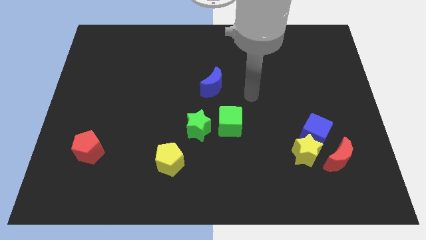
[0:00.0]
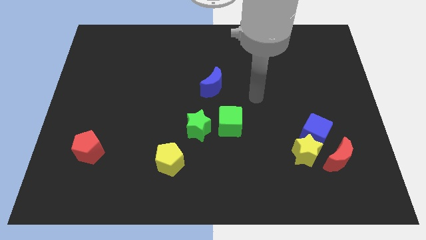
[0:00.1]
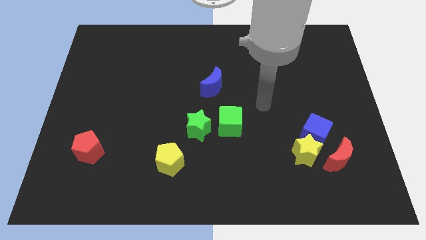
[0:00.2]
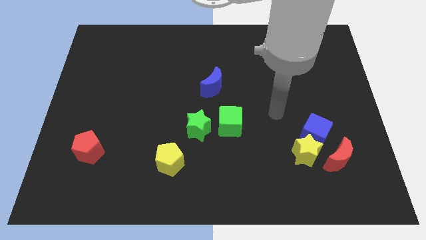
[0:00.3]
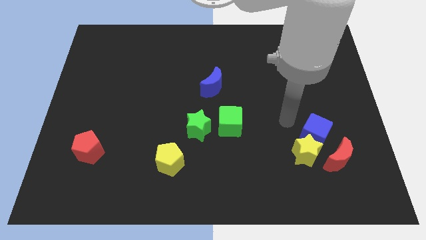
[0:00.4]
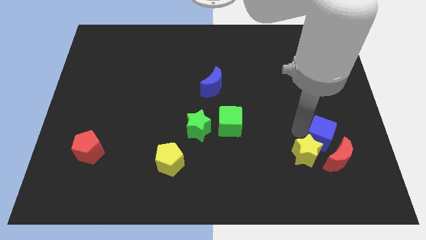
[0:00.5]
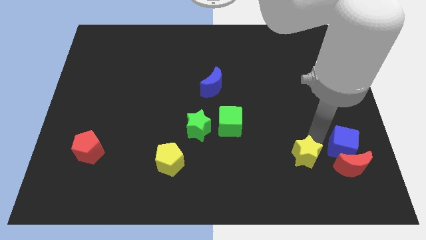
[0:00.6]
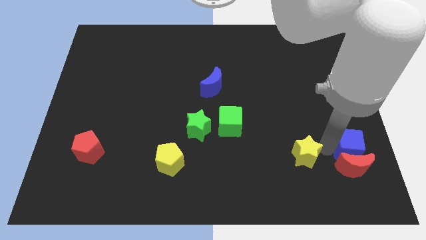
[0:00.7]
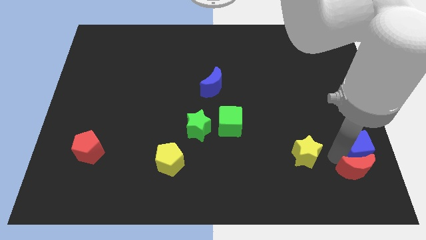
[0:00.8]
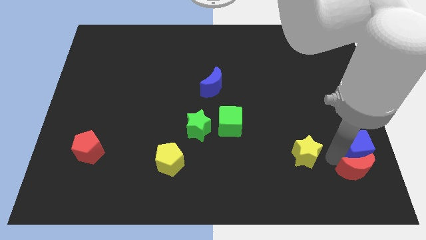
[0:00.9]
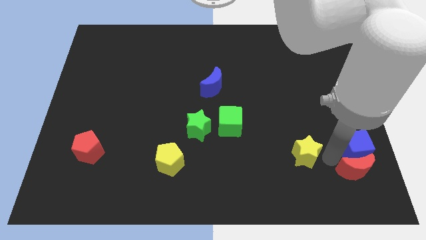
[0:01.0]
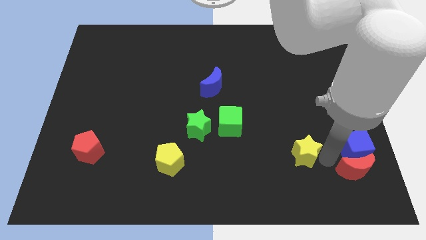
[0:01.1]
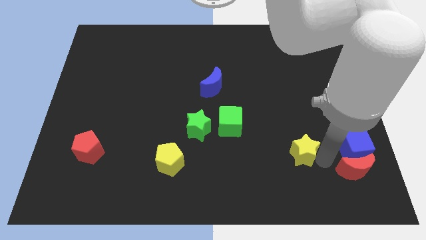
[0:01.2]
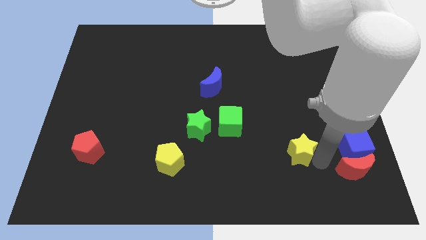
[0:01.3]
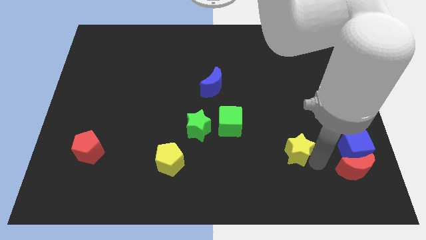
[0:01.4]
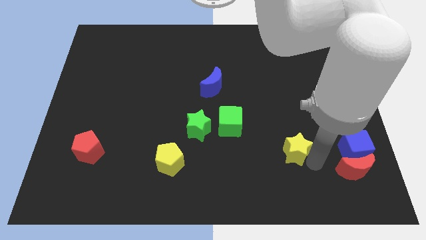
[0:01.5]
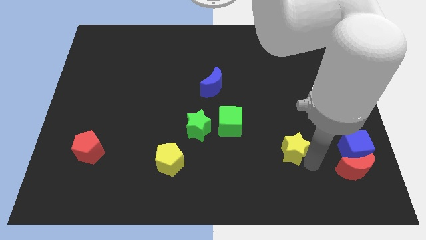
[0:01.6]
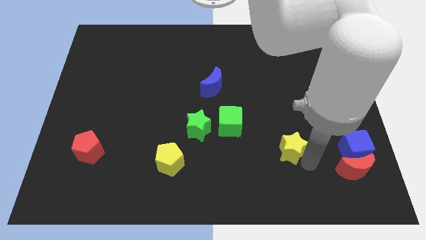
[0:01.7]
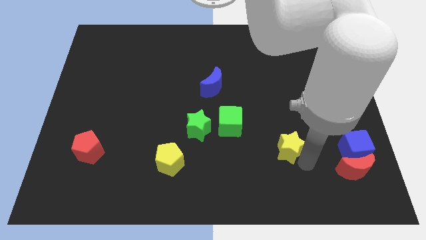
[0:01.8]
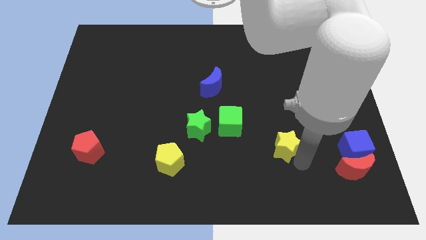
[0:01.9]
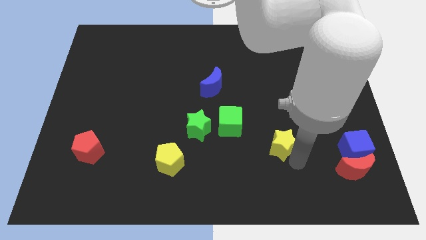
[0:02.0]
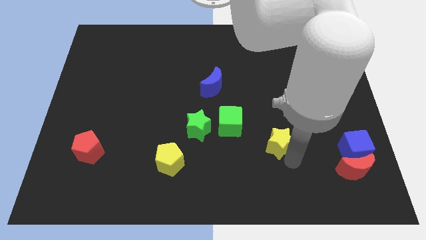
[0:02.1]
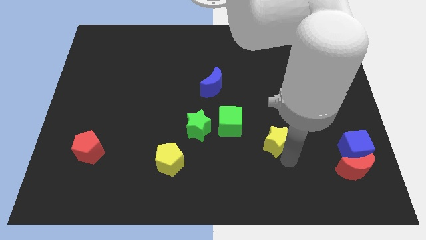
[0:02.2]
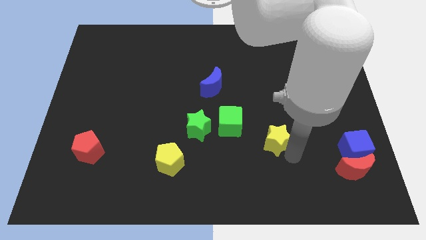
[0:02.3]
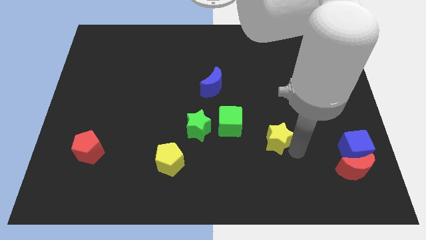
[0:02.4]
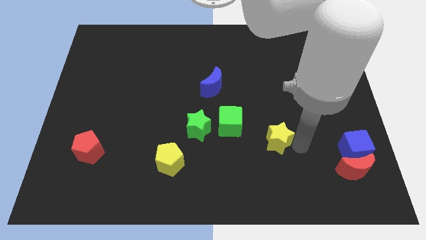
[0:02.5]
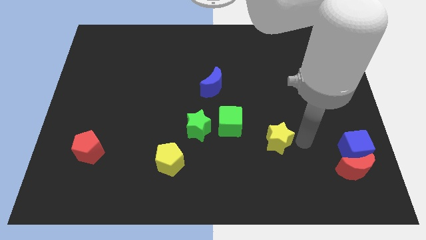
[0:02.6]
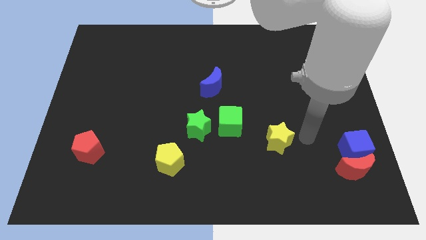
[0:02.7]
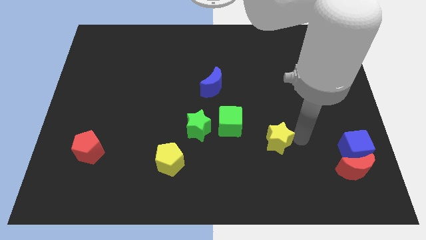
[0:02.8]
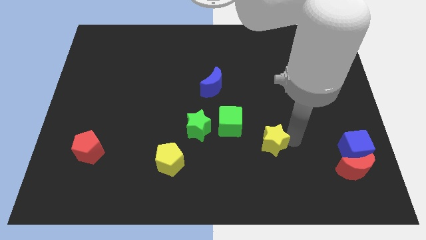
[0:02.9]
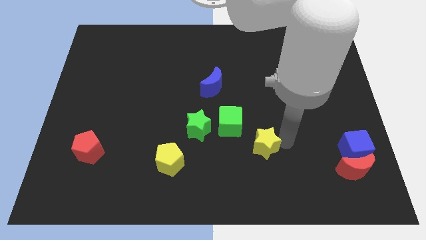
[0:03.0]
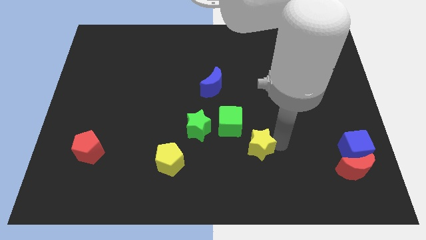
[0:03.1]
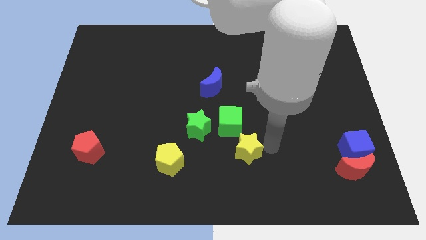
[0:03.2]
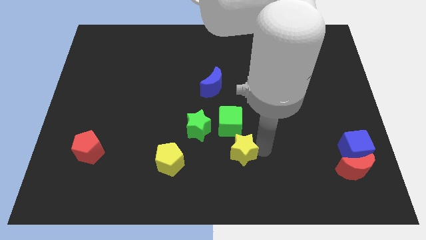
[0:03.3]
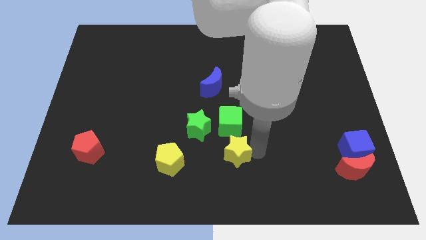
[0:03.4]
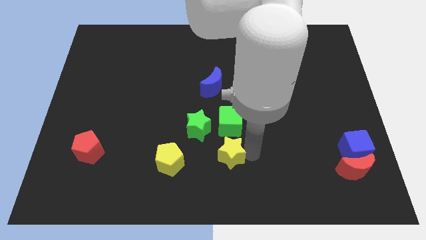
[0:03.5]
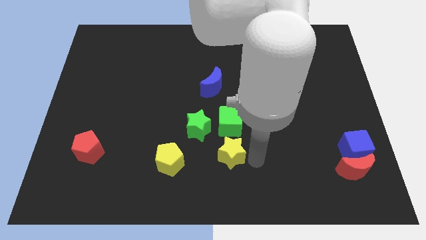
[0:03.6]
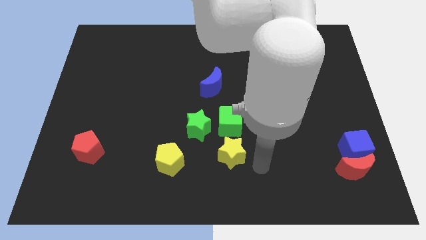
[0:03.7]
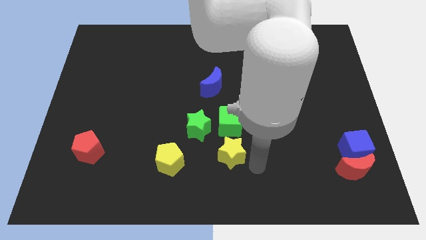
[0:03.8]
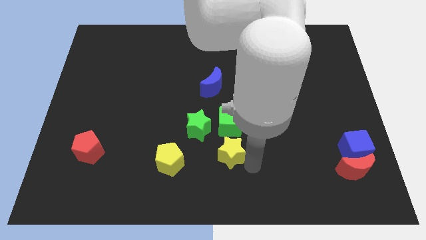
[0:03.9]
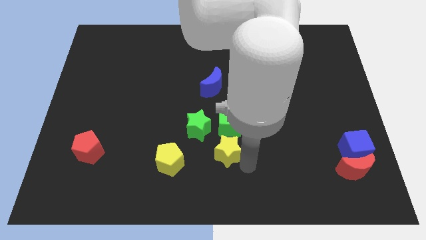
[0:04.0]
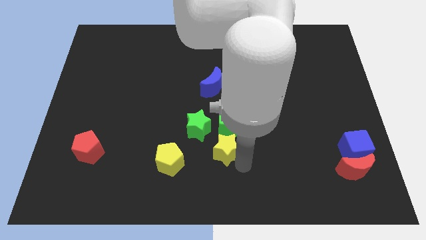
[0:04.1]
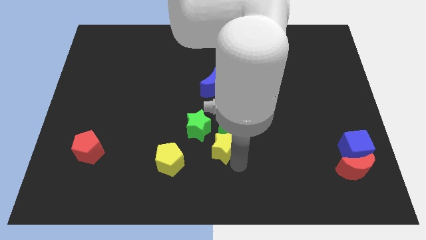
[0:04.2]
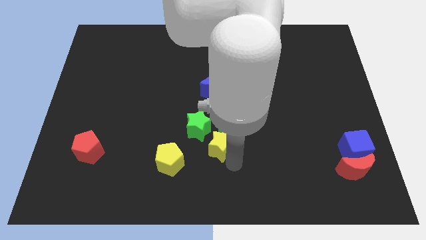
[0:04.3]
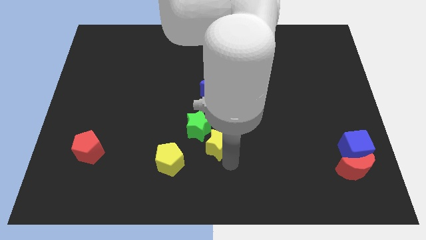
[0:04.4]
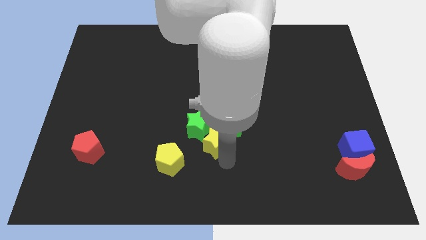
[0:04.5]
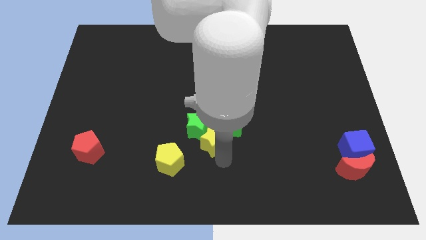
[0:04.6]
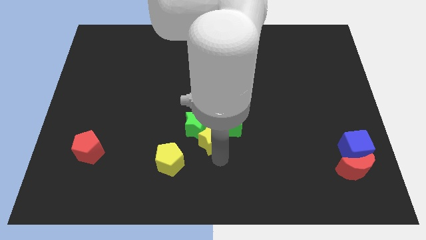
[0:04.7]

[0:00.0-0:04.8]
move the yellow star left

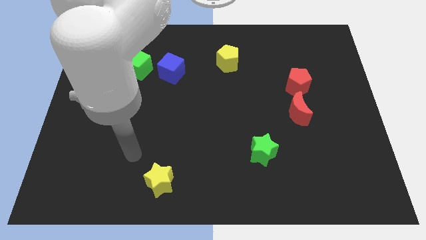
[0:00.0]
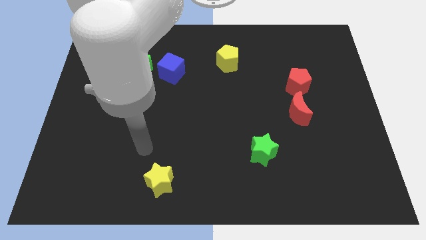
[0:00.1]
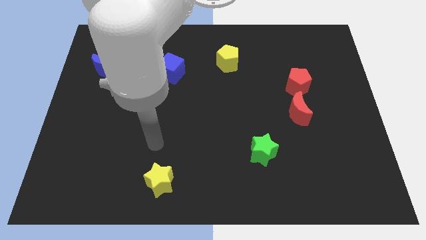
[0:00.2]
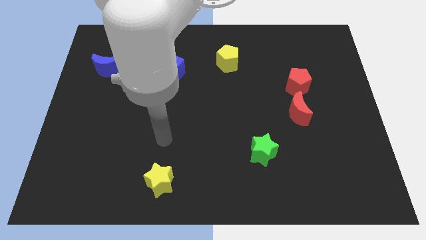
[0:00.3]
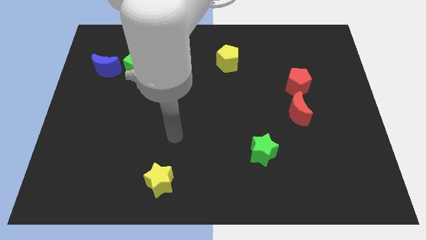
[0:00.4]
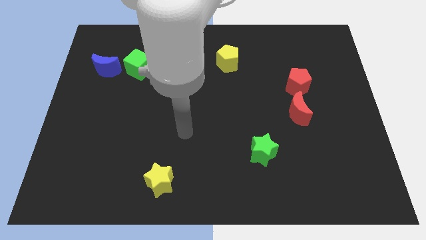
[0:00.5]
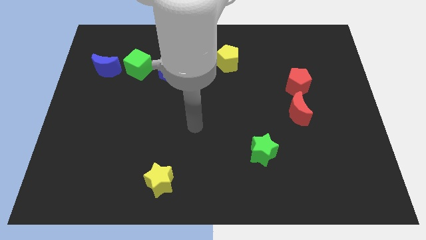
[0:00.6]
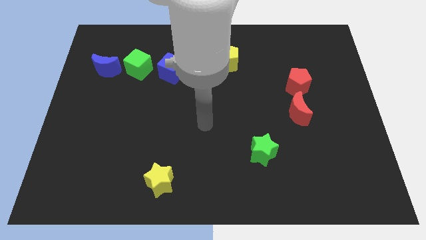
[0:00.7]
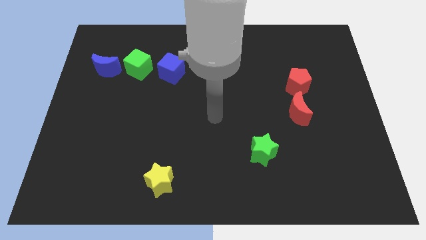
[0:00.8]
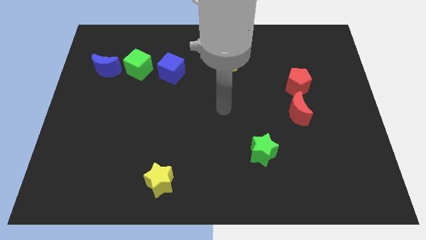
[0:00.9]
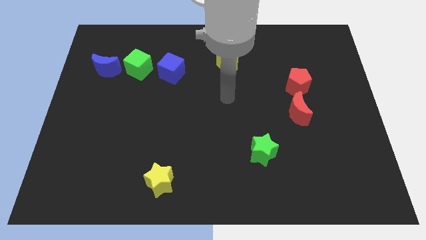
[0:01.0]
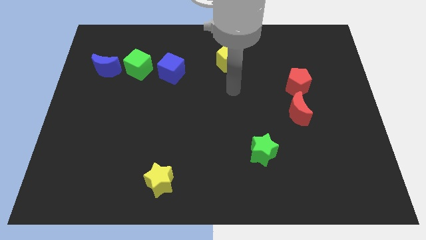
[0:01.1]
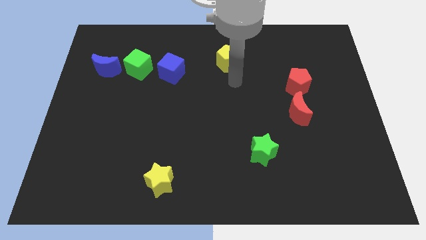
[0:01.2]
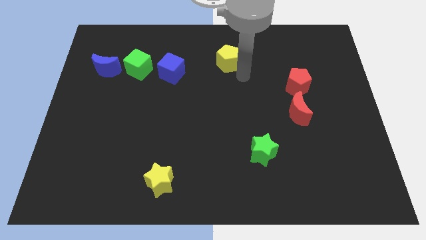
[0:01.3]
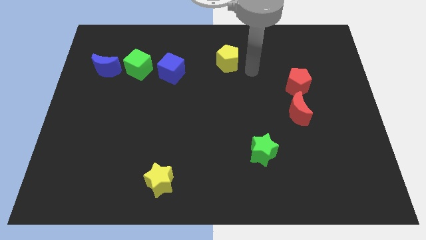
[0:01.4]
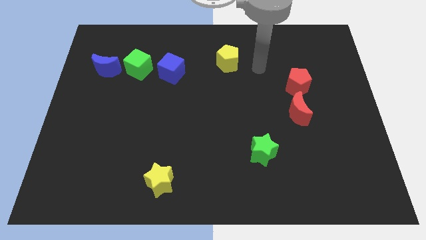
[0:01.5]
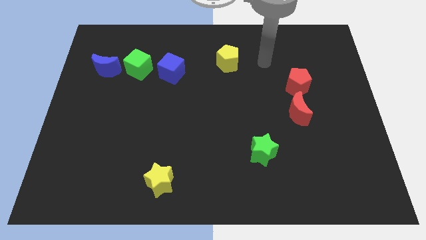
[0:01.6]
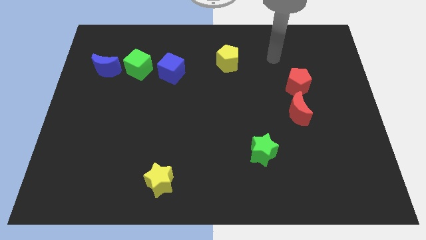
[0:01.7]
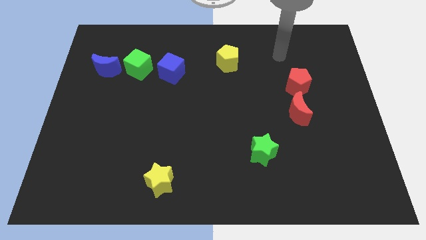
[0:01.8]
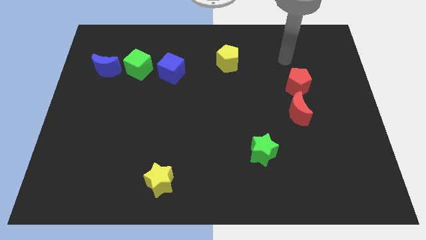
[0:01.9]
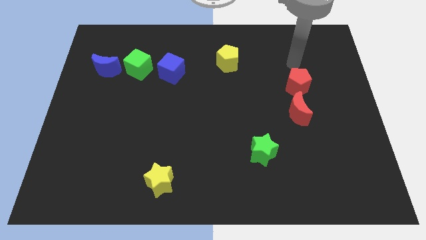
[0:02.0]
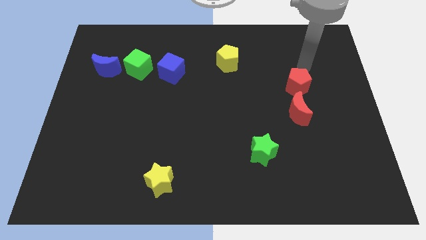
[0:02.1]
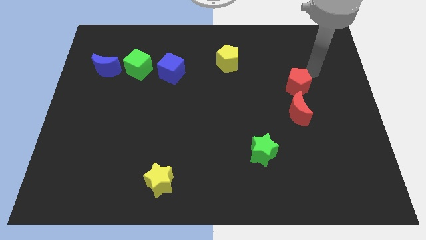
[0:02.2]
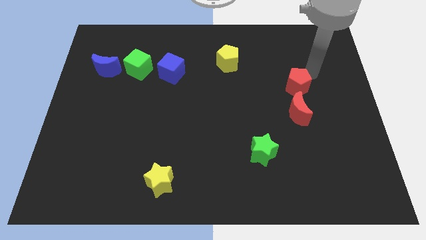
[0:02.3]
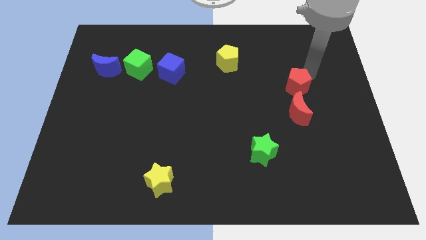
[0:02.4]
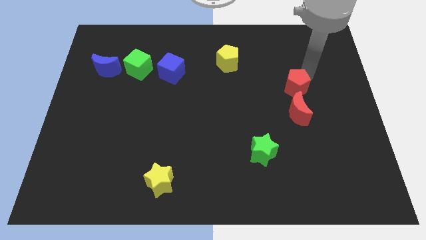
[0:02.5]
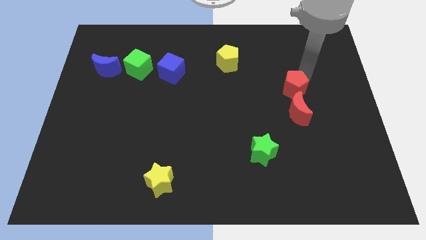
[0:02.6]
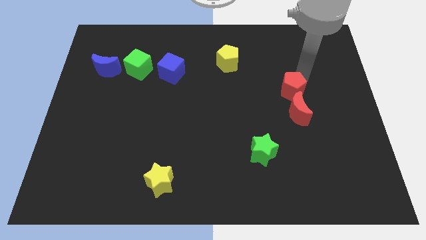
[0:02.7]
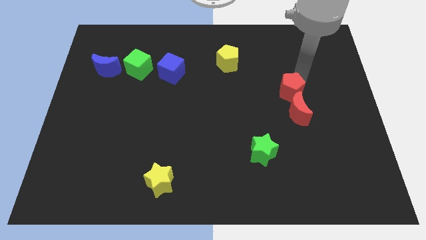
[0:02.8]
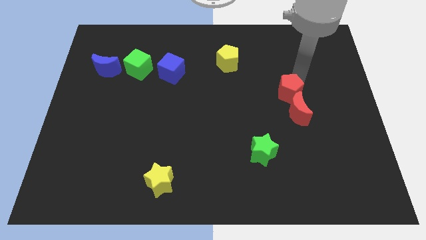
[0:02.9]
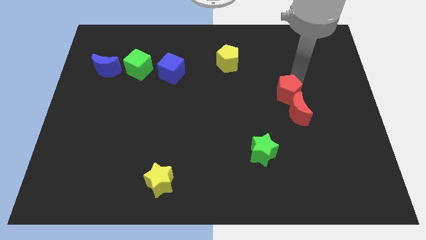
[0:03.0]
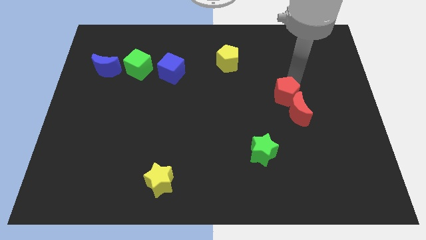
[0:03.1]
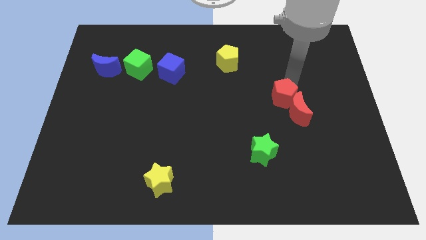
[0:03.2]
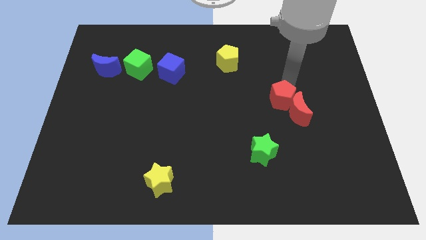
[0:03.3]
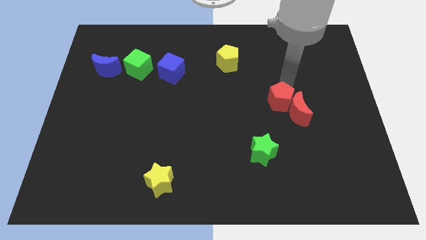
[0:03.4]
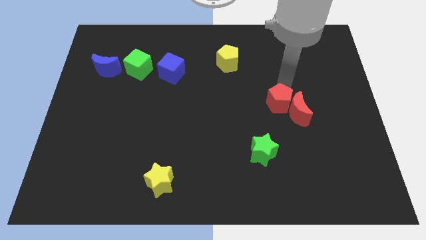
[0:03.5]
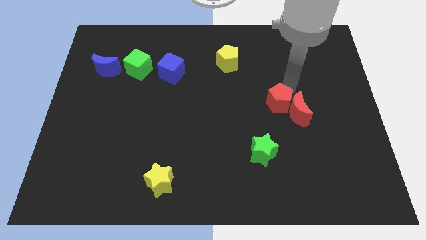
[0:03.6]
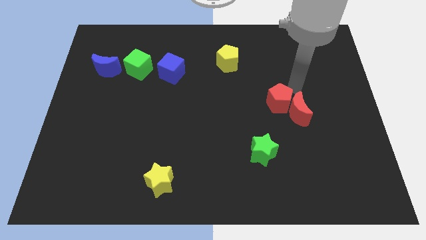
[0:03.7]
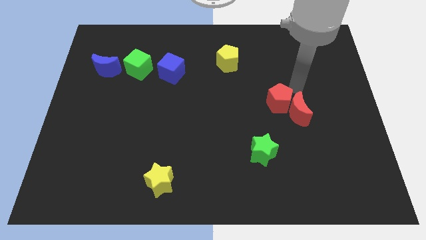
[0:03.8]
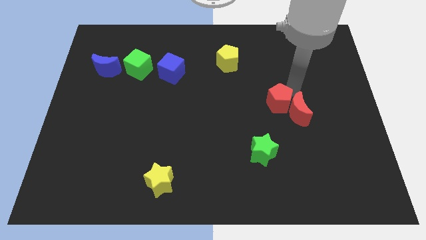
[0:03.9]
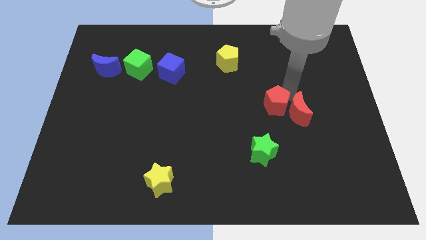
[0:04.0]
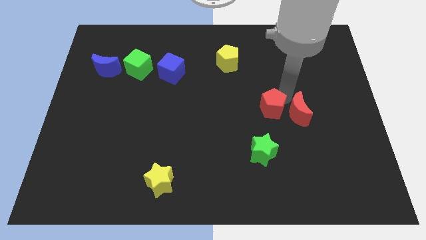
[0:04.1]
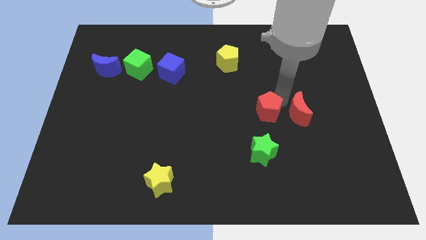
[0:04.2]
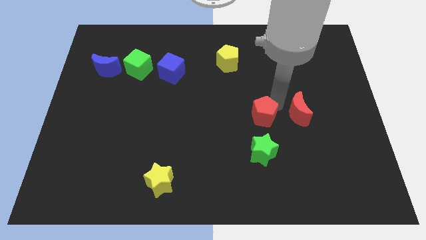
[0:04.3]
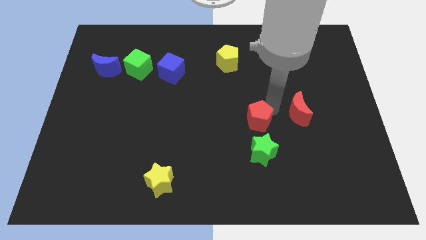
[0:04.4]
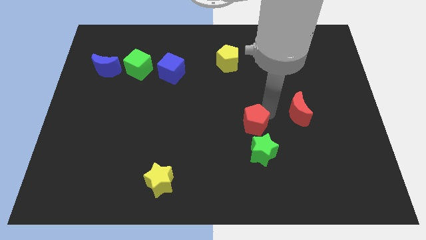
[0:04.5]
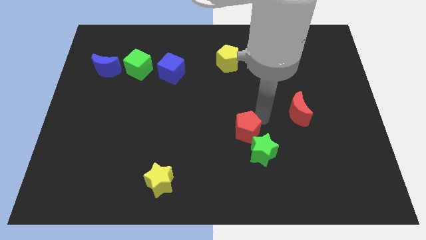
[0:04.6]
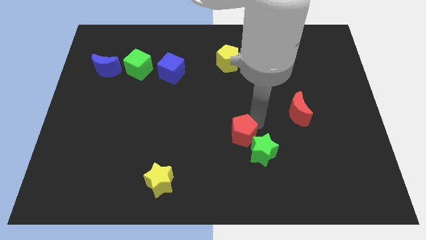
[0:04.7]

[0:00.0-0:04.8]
move the red pentagon down and to the left
